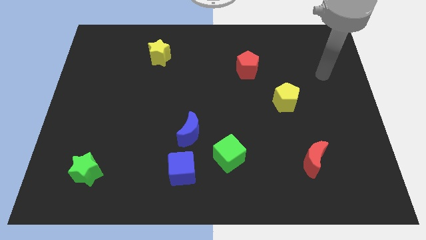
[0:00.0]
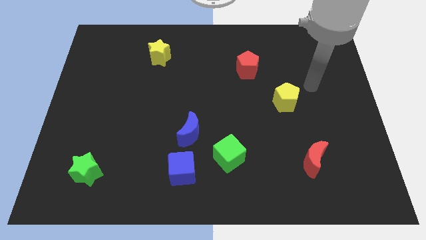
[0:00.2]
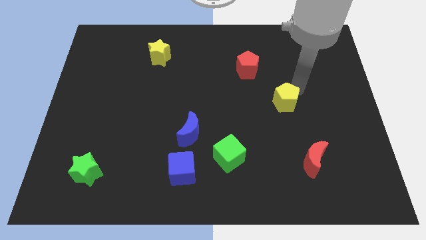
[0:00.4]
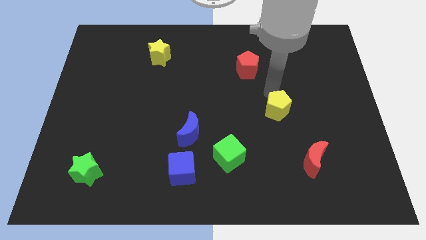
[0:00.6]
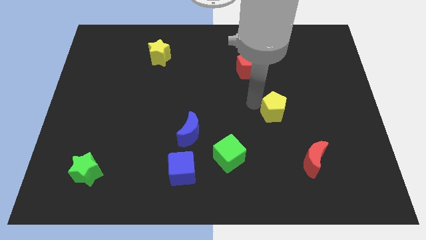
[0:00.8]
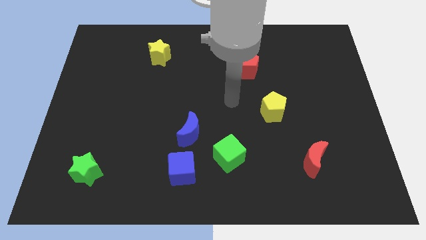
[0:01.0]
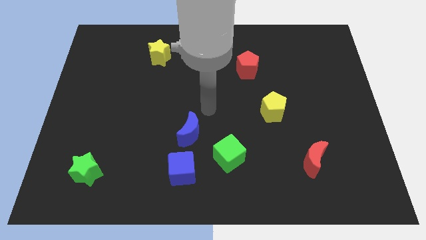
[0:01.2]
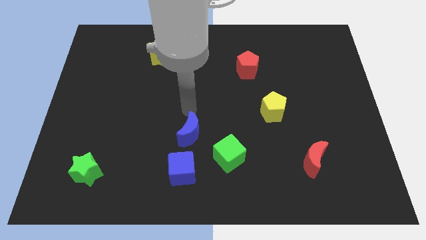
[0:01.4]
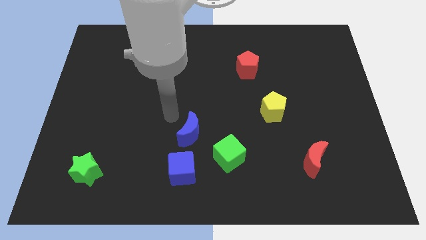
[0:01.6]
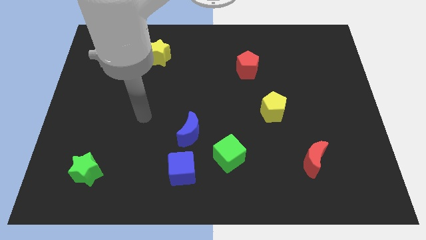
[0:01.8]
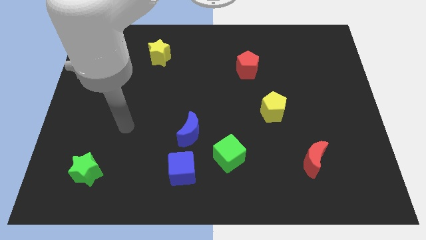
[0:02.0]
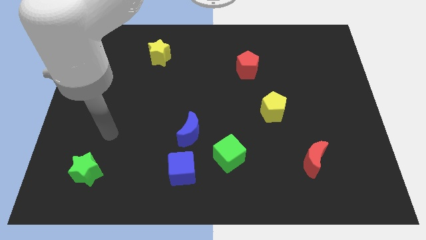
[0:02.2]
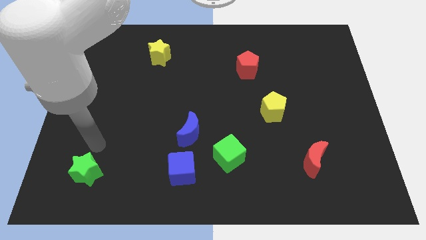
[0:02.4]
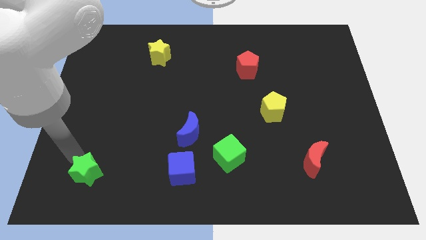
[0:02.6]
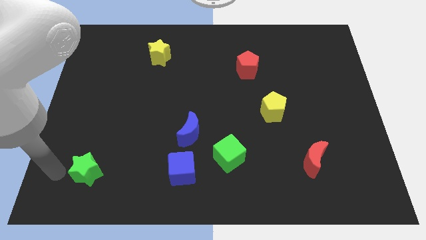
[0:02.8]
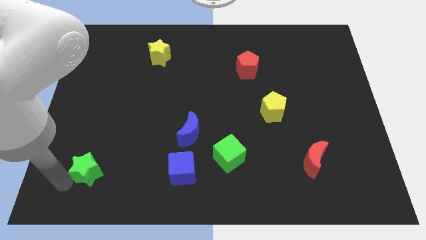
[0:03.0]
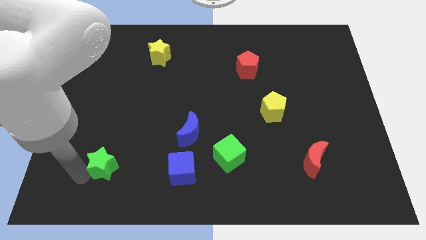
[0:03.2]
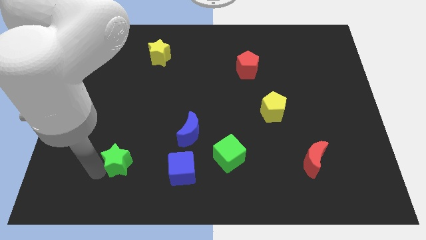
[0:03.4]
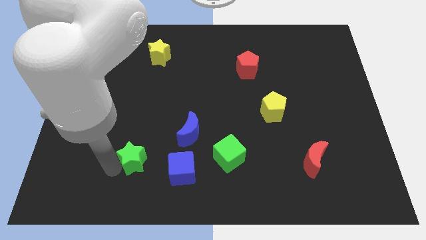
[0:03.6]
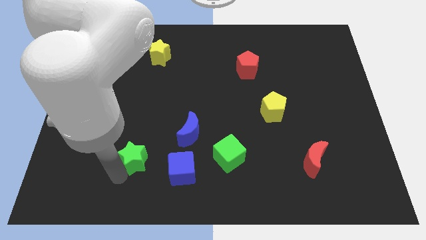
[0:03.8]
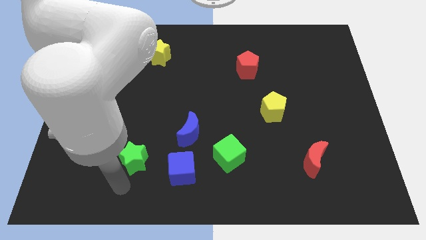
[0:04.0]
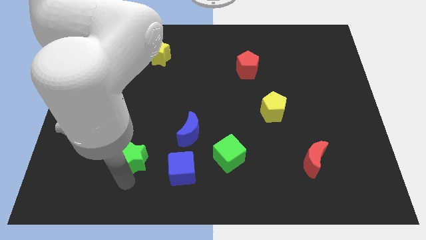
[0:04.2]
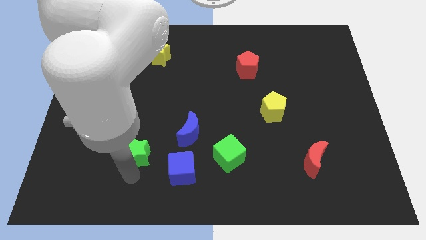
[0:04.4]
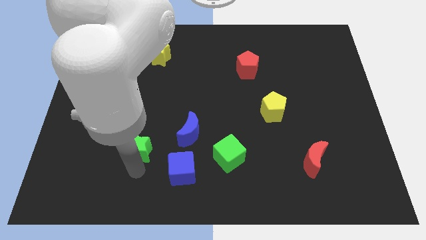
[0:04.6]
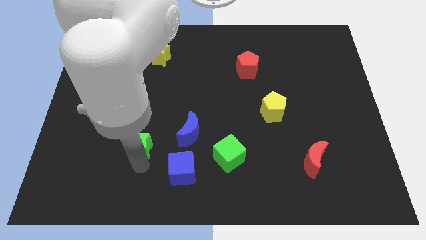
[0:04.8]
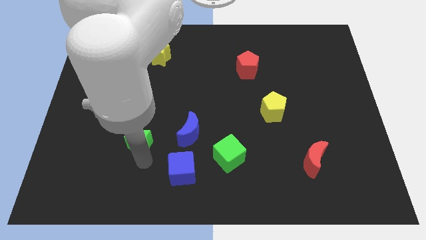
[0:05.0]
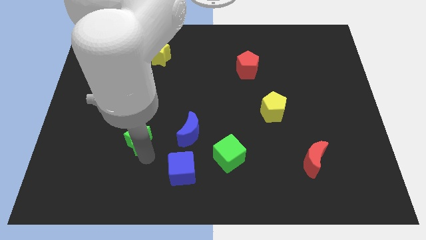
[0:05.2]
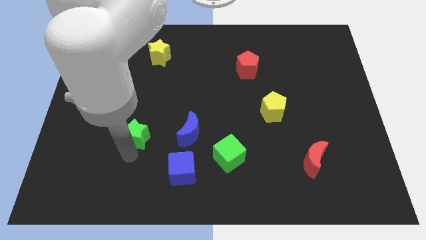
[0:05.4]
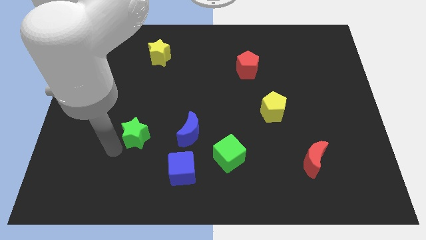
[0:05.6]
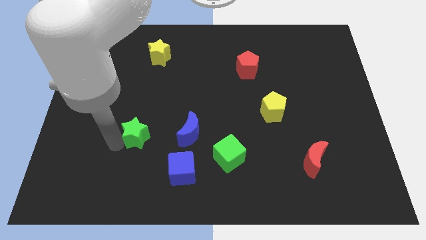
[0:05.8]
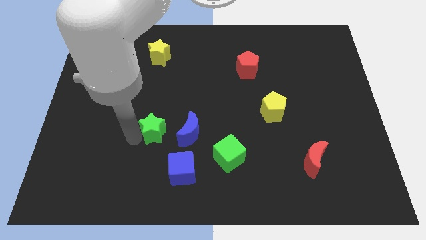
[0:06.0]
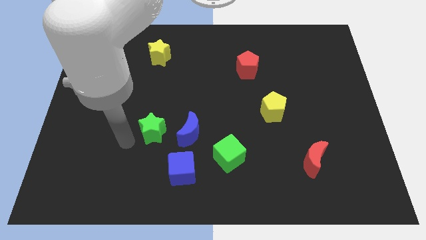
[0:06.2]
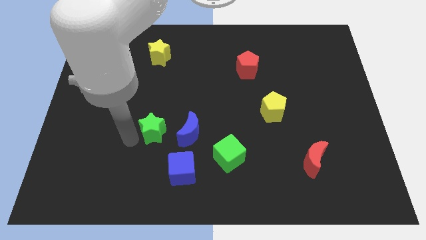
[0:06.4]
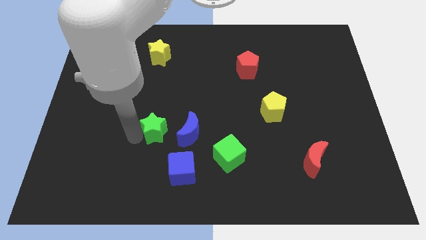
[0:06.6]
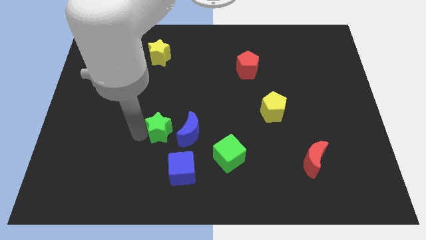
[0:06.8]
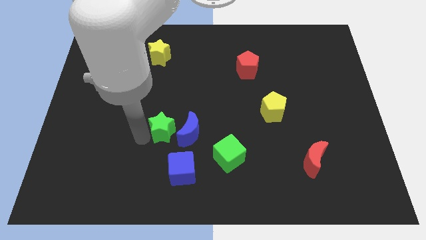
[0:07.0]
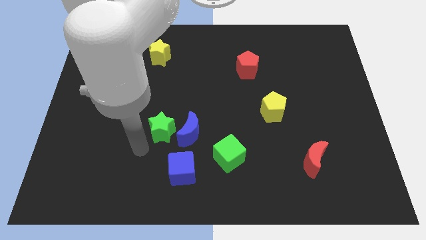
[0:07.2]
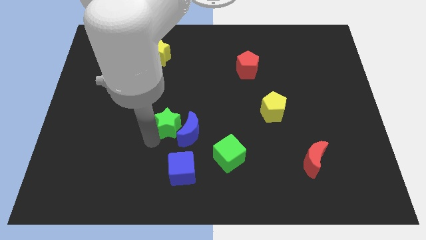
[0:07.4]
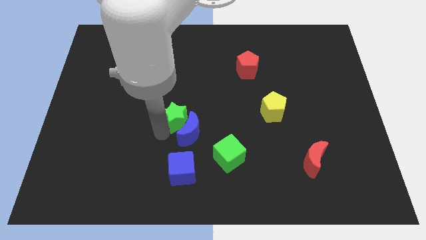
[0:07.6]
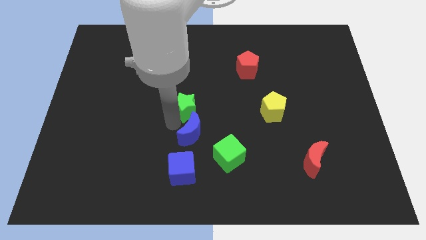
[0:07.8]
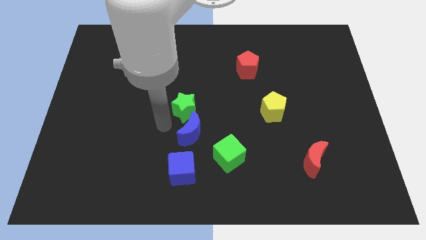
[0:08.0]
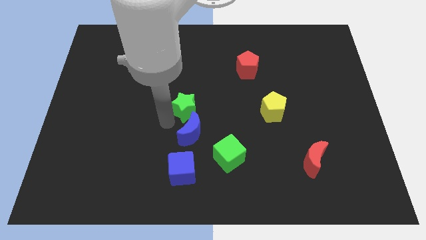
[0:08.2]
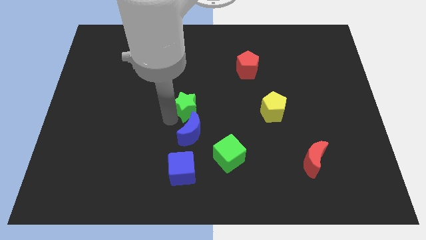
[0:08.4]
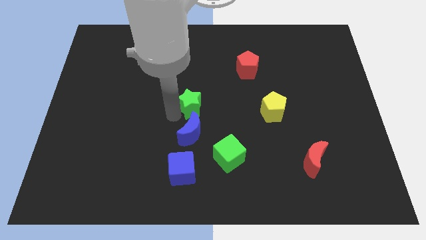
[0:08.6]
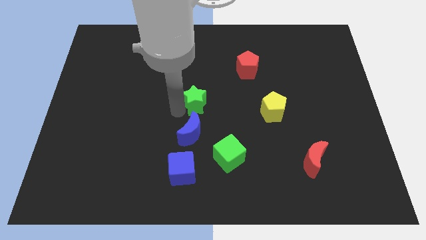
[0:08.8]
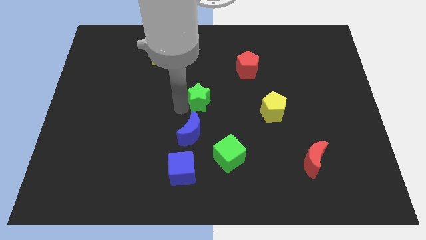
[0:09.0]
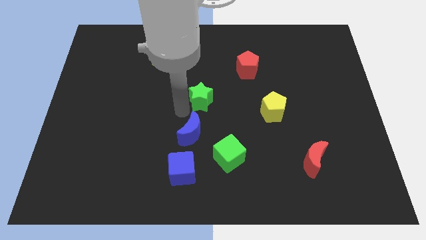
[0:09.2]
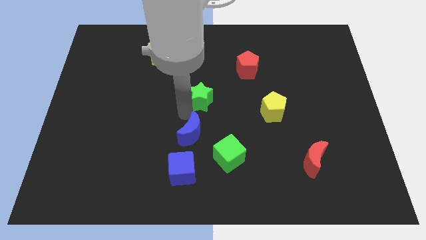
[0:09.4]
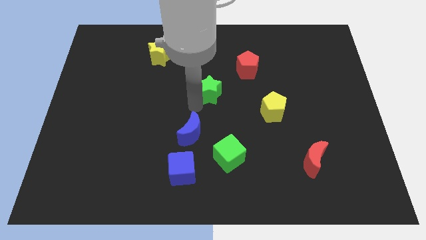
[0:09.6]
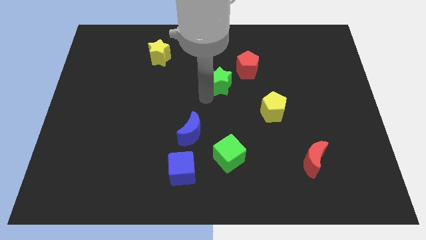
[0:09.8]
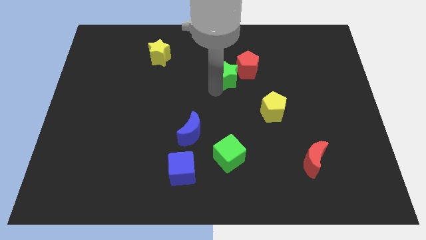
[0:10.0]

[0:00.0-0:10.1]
move the green star to the red pentagon

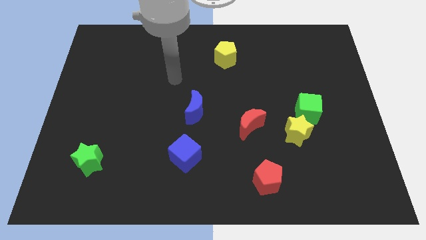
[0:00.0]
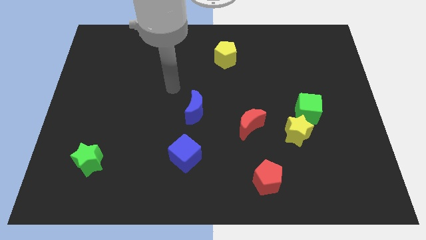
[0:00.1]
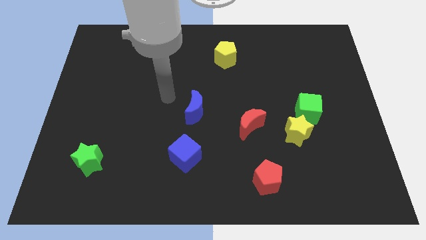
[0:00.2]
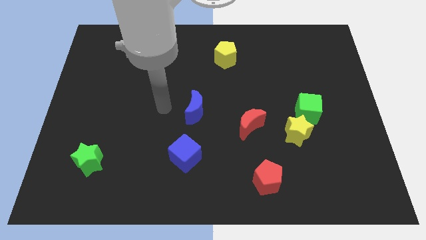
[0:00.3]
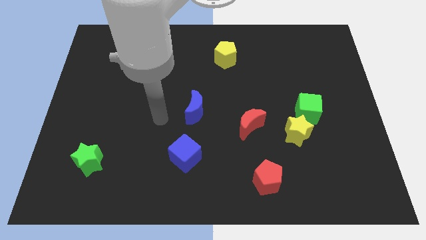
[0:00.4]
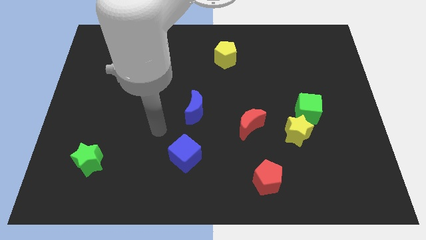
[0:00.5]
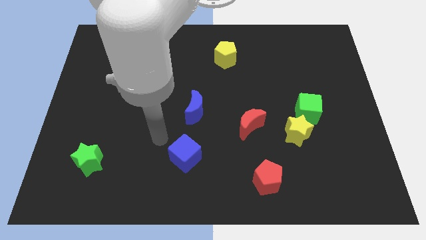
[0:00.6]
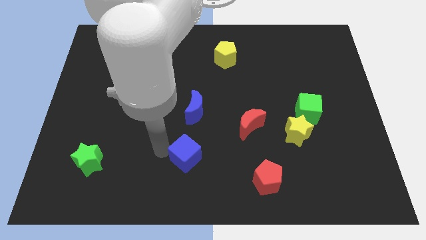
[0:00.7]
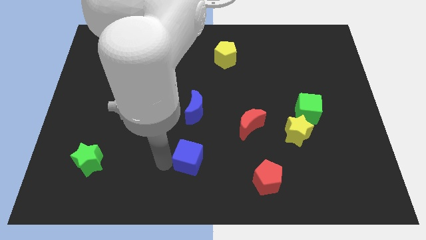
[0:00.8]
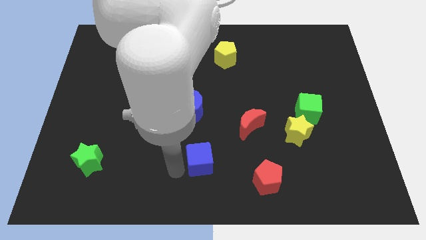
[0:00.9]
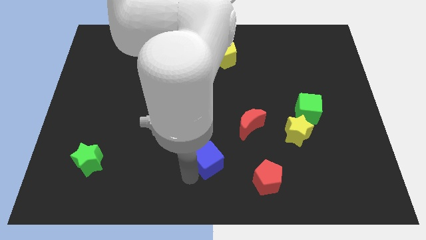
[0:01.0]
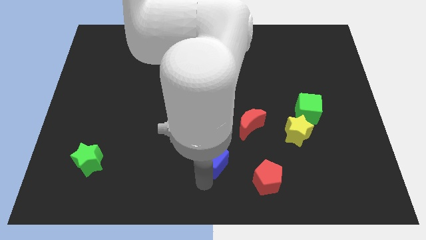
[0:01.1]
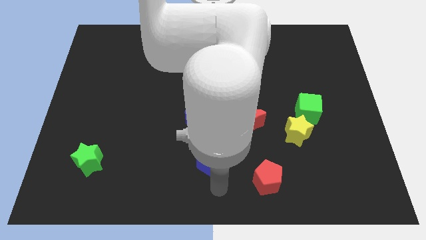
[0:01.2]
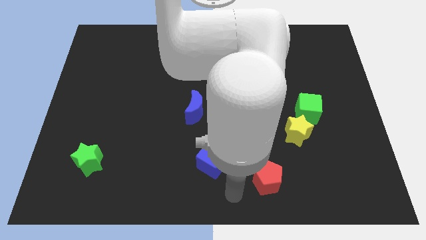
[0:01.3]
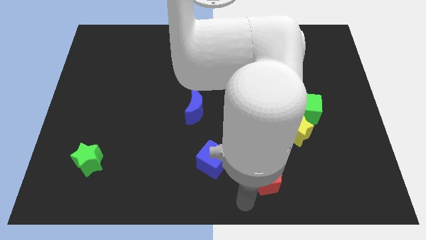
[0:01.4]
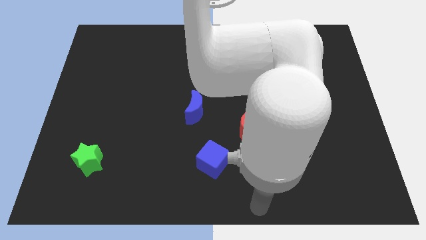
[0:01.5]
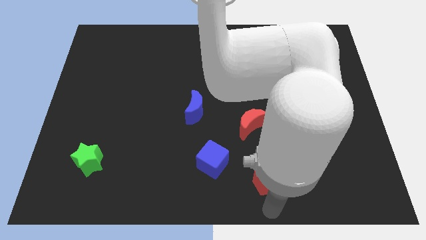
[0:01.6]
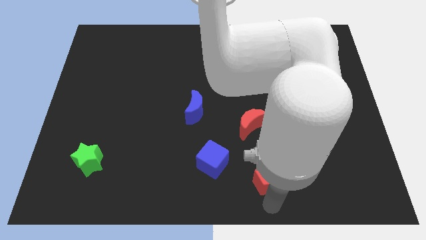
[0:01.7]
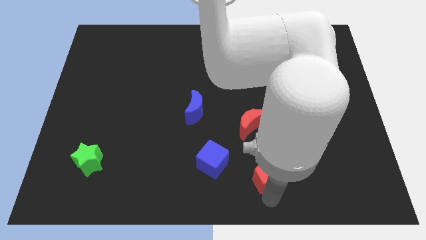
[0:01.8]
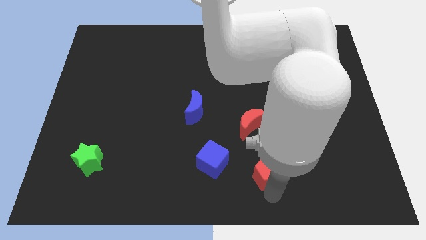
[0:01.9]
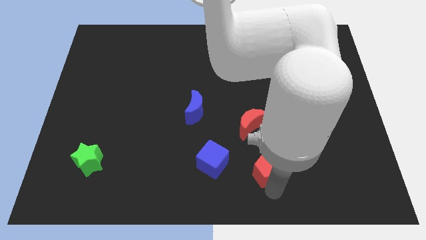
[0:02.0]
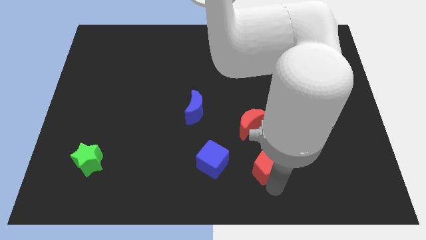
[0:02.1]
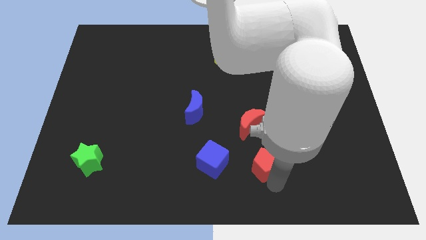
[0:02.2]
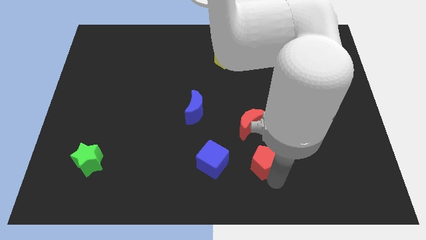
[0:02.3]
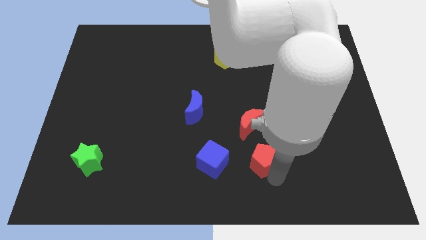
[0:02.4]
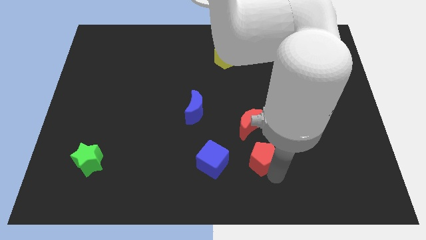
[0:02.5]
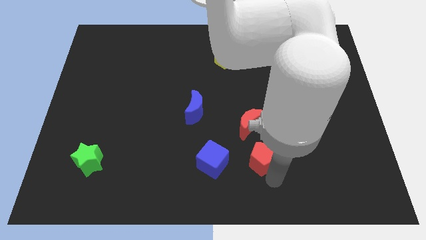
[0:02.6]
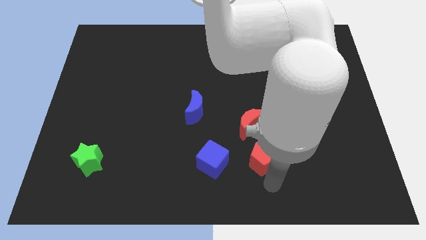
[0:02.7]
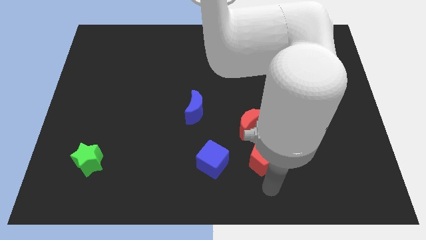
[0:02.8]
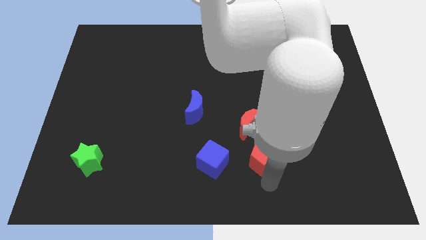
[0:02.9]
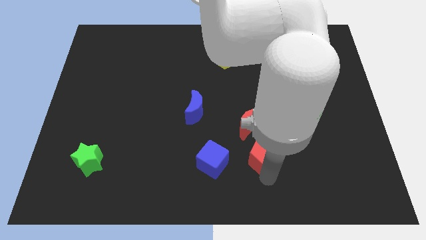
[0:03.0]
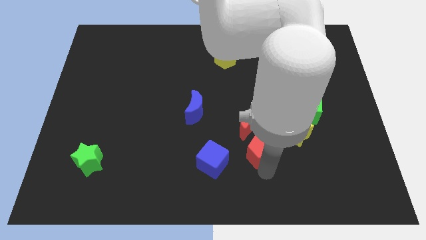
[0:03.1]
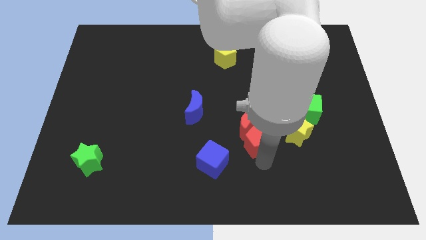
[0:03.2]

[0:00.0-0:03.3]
move the red pentagon to the red moon

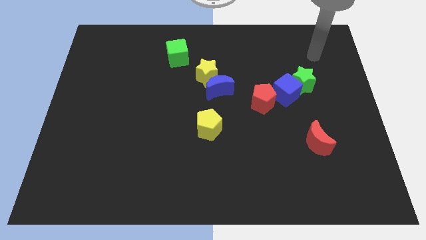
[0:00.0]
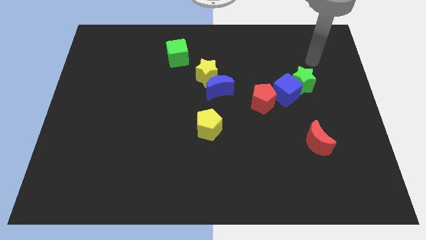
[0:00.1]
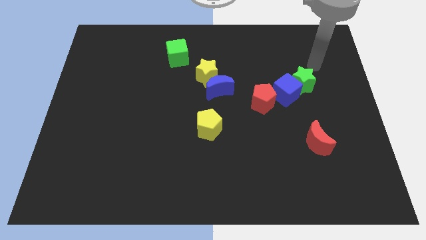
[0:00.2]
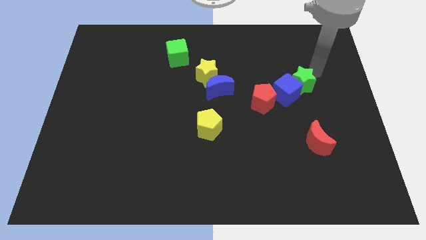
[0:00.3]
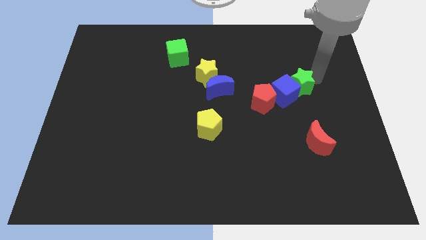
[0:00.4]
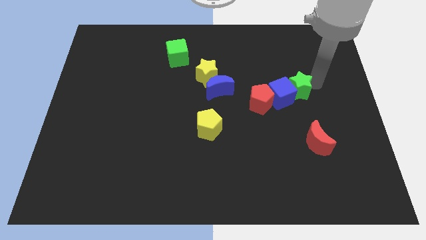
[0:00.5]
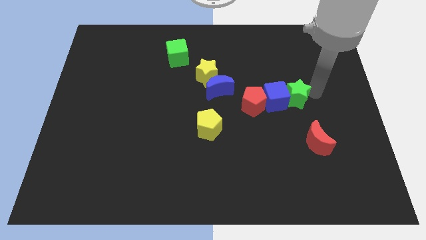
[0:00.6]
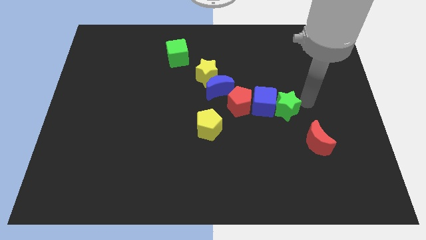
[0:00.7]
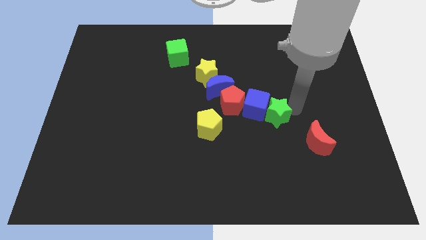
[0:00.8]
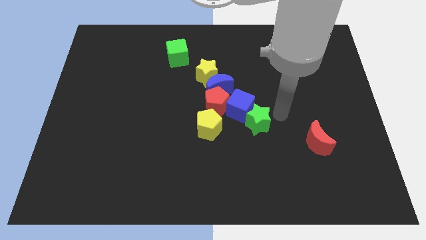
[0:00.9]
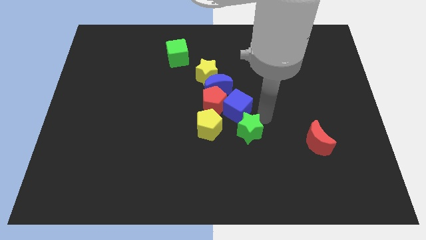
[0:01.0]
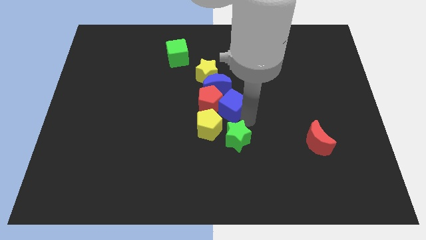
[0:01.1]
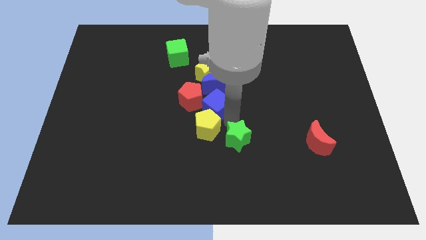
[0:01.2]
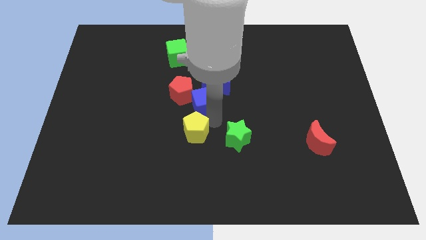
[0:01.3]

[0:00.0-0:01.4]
push the blue cube to the blue moon
